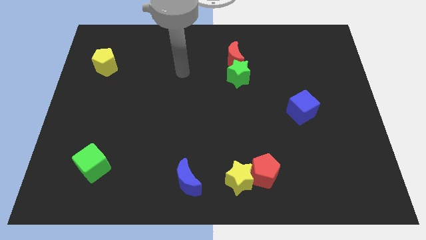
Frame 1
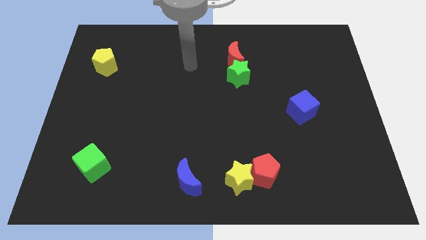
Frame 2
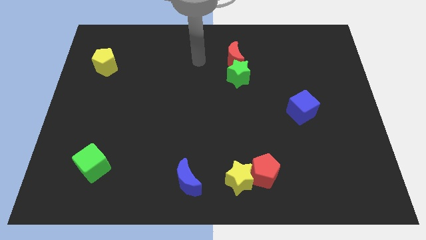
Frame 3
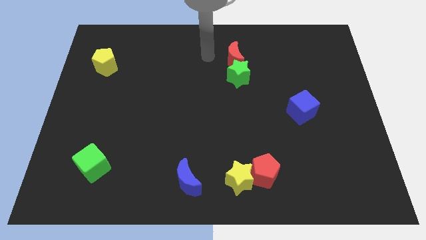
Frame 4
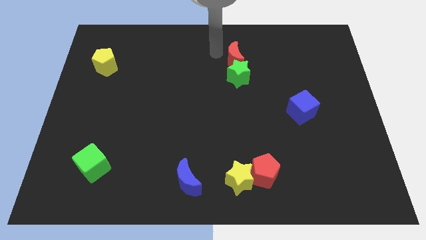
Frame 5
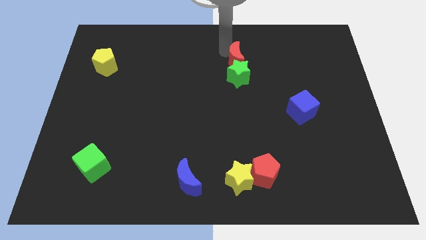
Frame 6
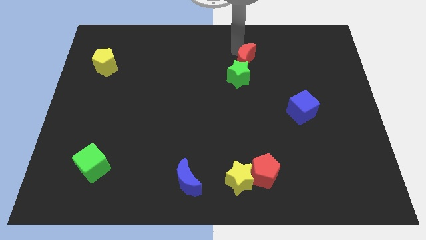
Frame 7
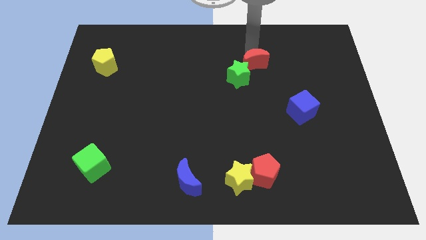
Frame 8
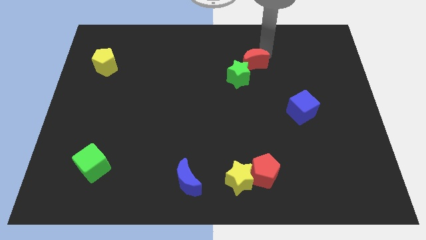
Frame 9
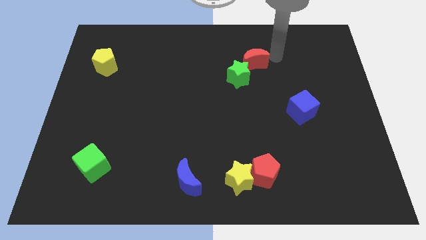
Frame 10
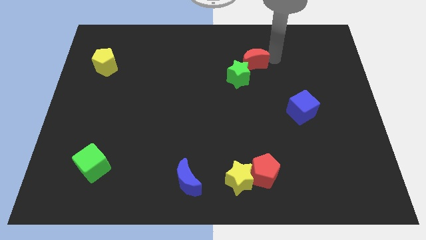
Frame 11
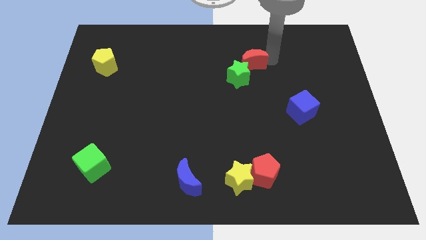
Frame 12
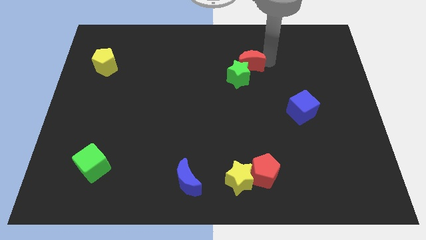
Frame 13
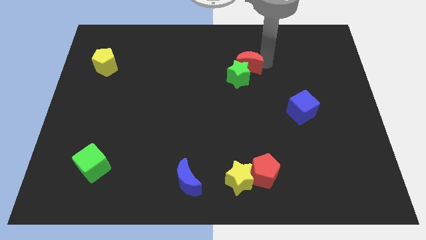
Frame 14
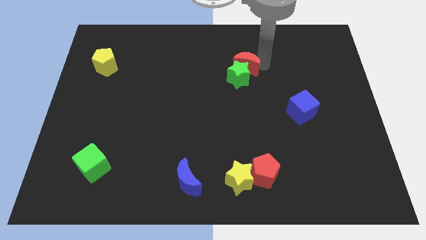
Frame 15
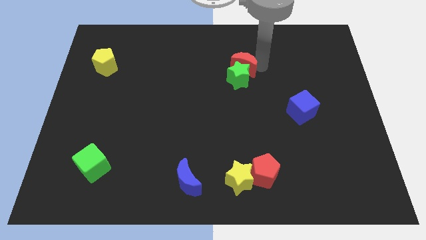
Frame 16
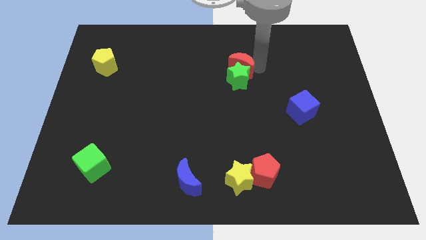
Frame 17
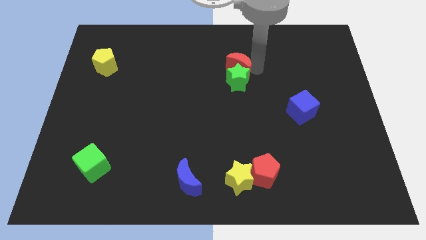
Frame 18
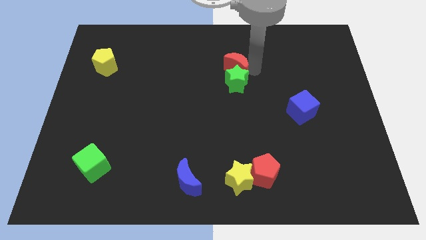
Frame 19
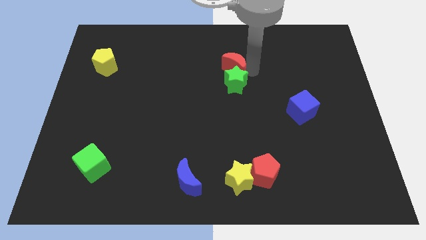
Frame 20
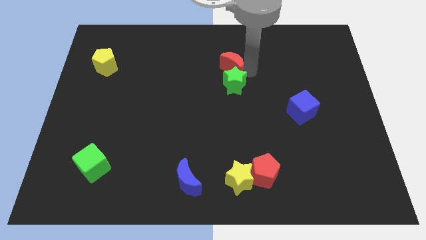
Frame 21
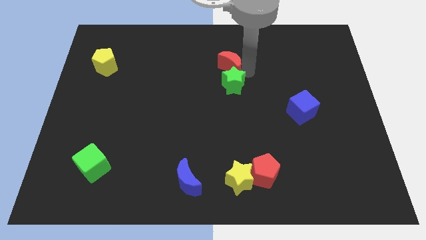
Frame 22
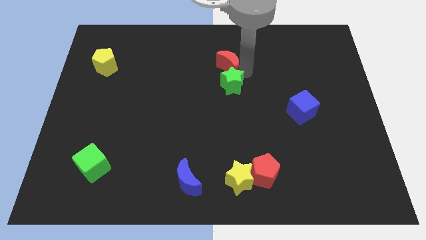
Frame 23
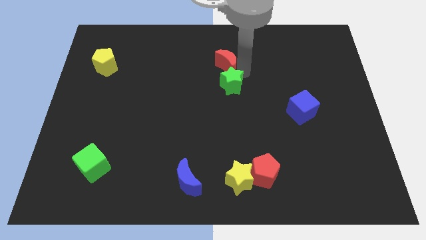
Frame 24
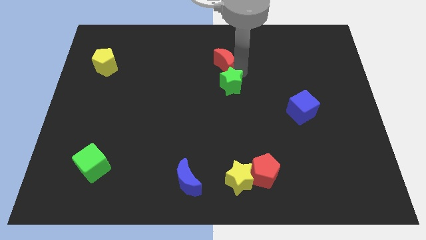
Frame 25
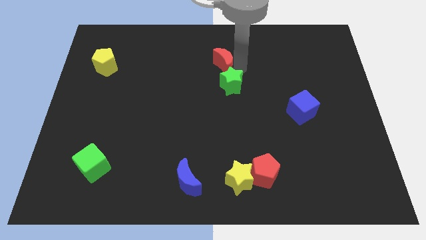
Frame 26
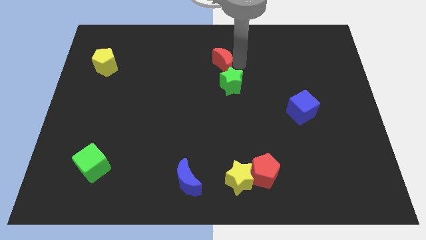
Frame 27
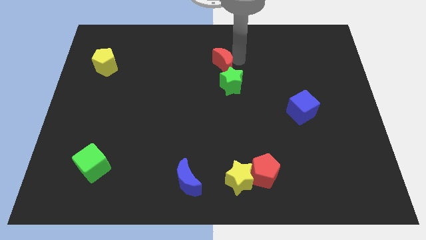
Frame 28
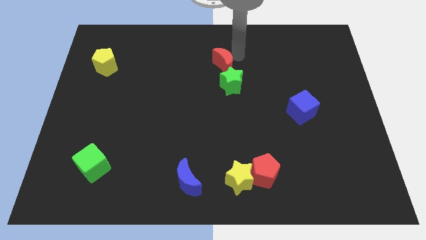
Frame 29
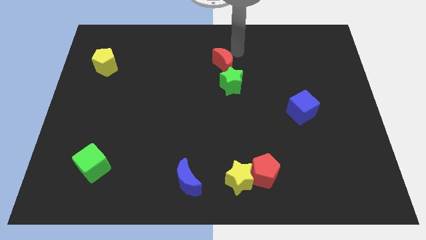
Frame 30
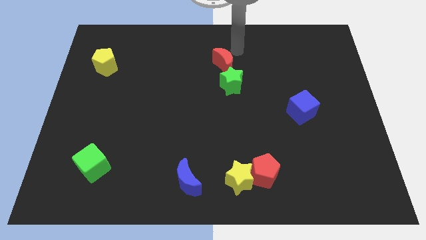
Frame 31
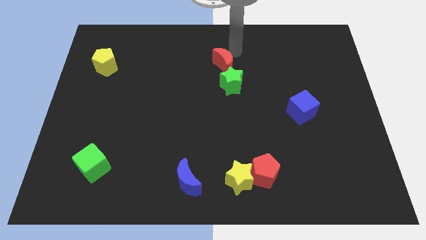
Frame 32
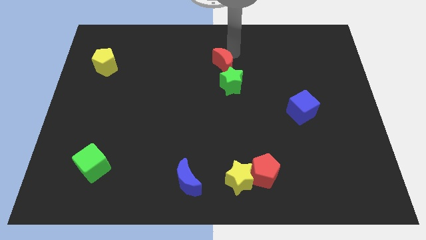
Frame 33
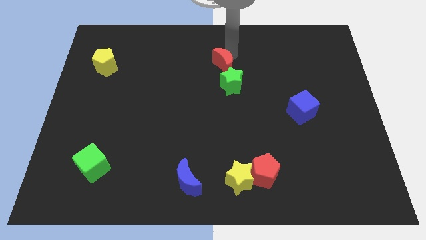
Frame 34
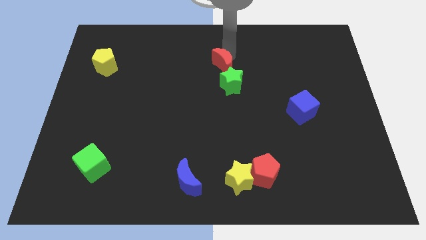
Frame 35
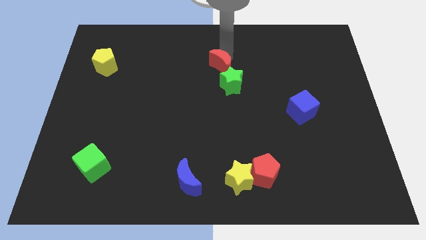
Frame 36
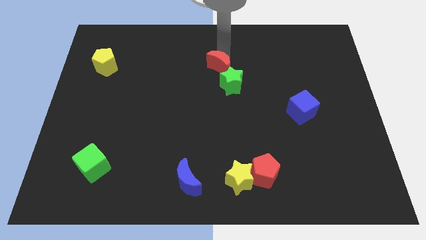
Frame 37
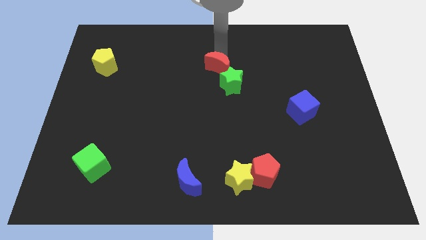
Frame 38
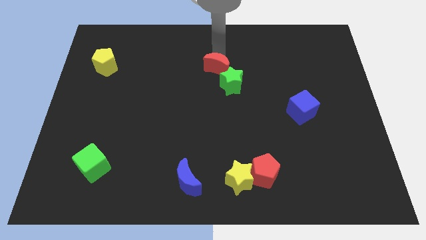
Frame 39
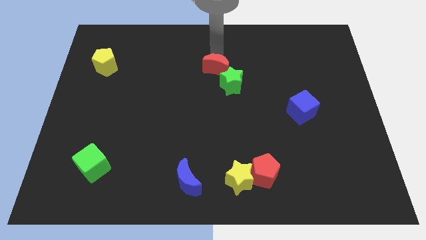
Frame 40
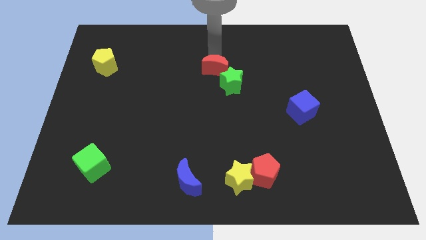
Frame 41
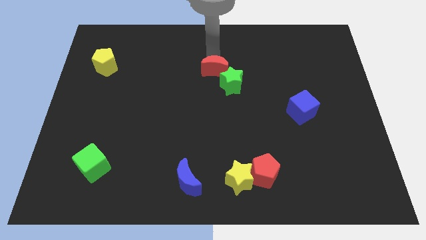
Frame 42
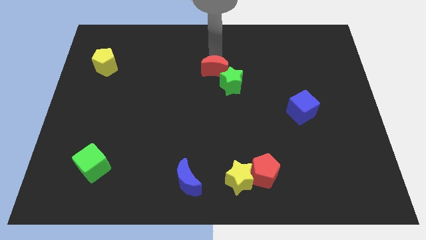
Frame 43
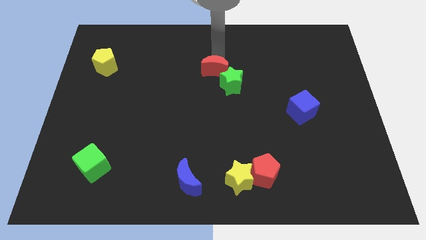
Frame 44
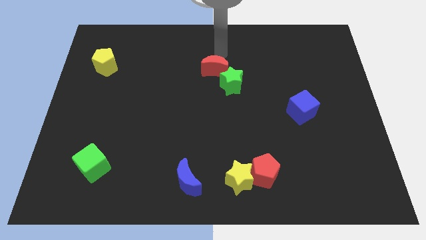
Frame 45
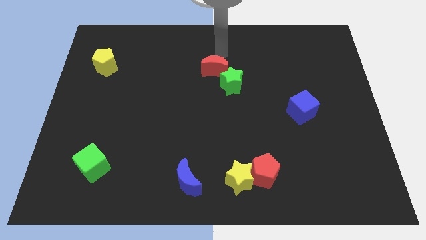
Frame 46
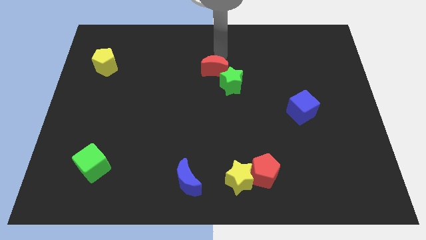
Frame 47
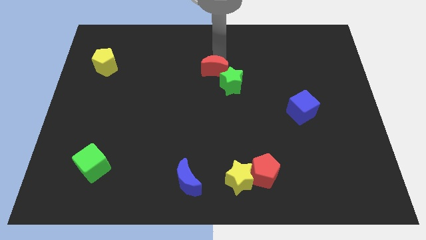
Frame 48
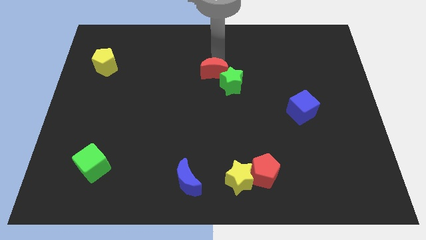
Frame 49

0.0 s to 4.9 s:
slide the red moon a little bit downwards and left

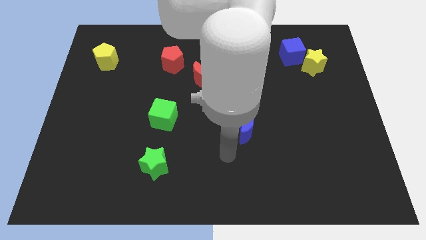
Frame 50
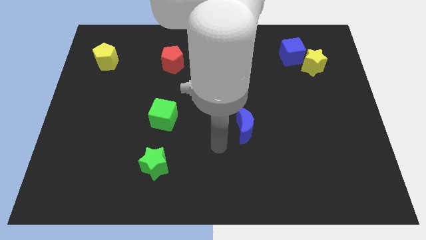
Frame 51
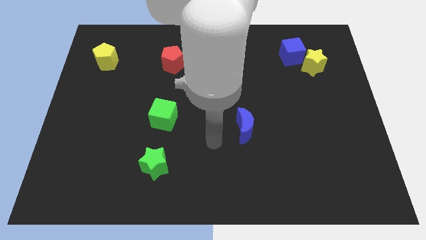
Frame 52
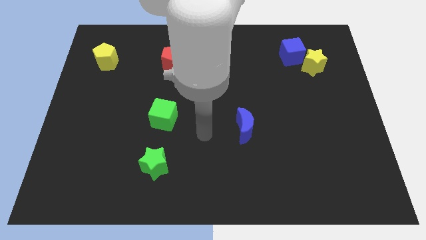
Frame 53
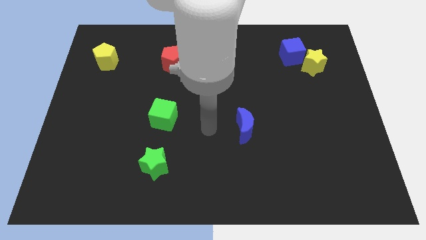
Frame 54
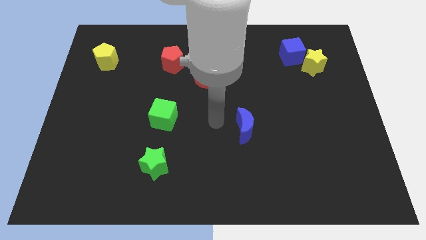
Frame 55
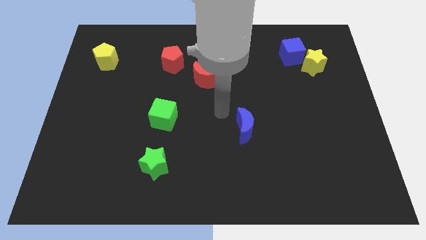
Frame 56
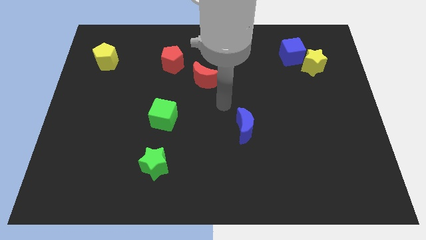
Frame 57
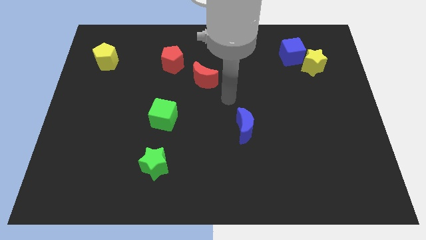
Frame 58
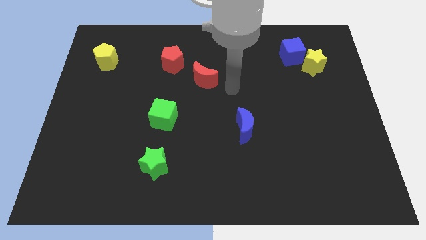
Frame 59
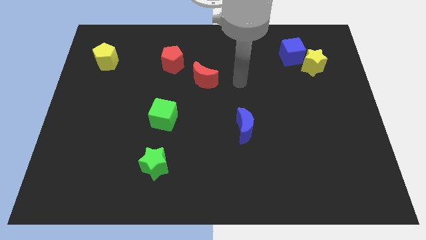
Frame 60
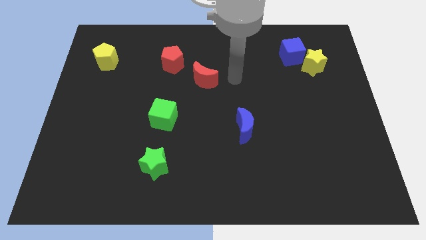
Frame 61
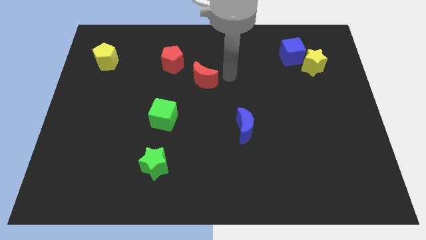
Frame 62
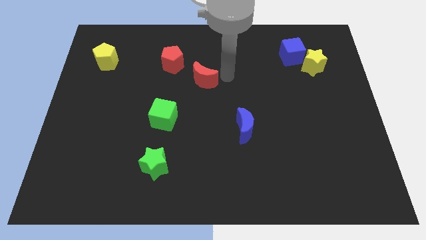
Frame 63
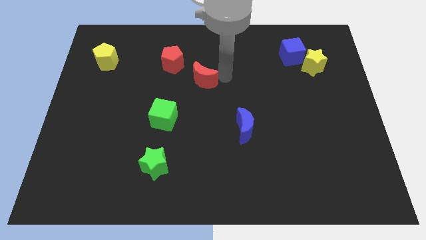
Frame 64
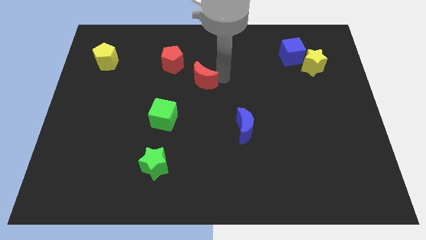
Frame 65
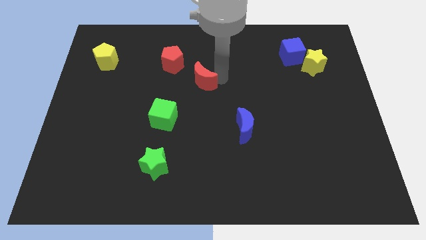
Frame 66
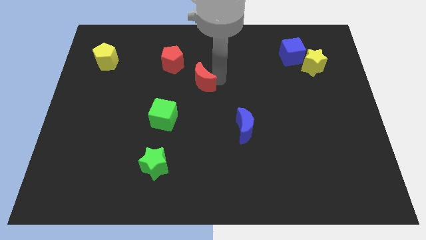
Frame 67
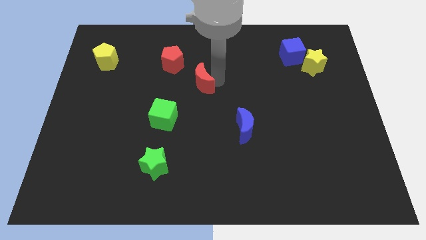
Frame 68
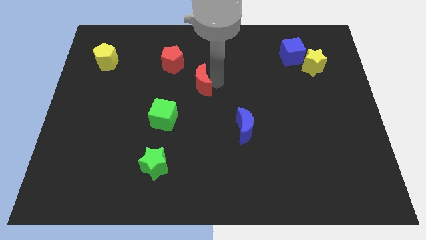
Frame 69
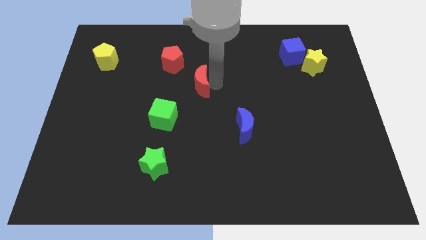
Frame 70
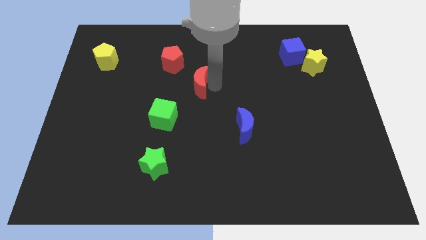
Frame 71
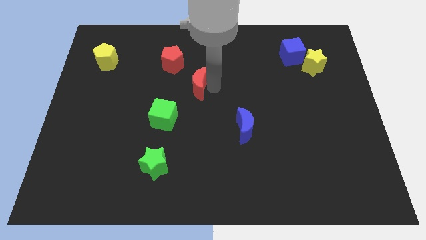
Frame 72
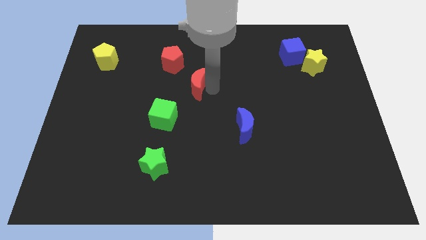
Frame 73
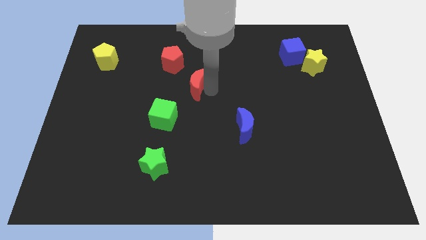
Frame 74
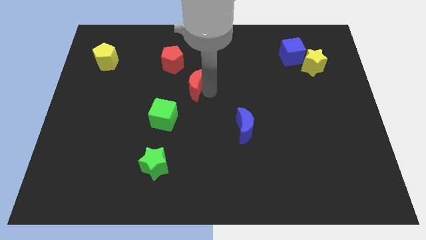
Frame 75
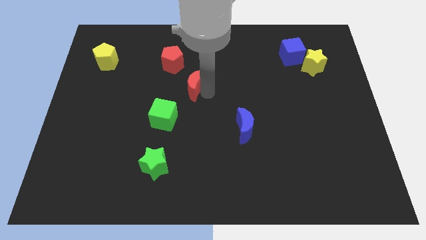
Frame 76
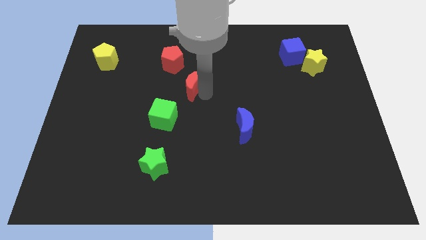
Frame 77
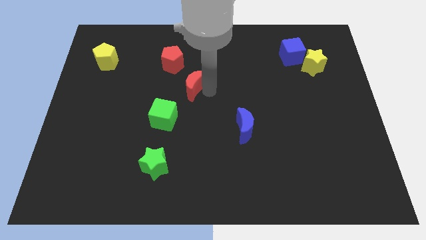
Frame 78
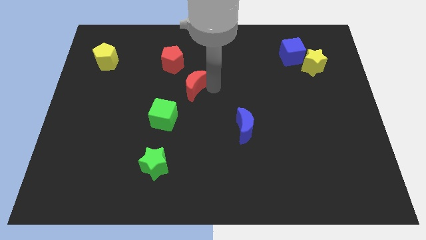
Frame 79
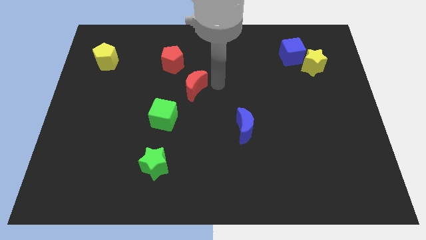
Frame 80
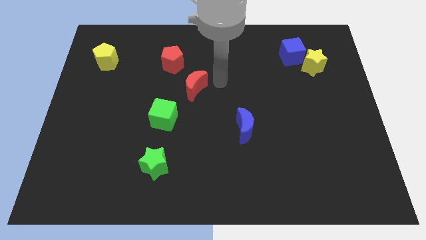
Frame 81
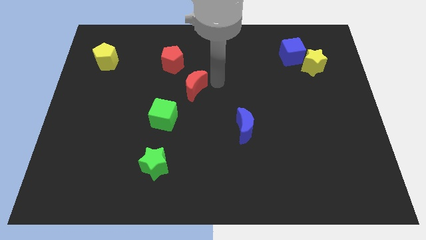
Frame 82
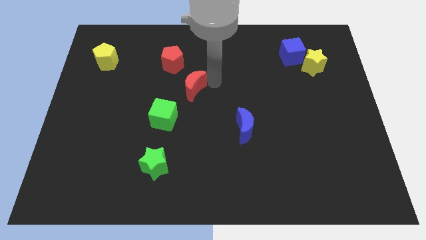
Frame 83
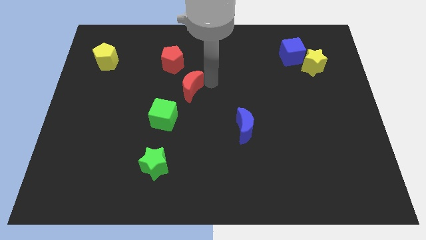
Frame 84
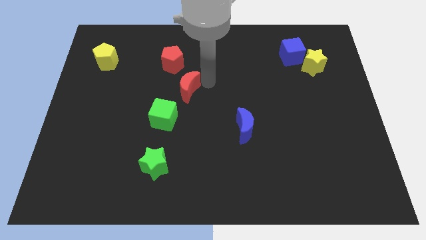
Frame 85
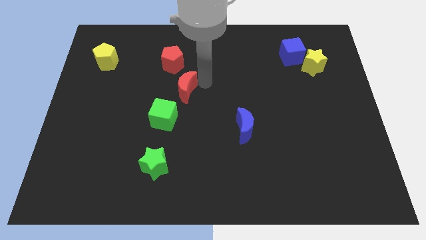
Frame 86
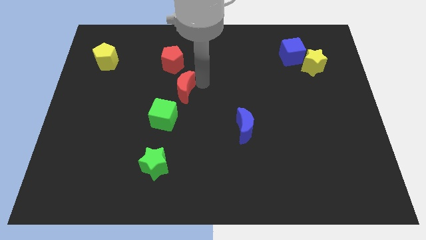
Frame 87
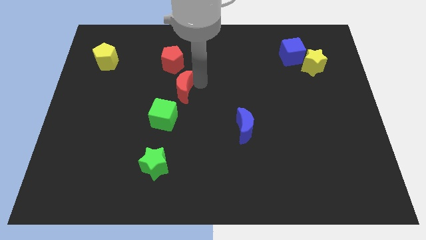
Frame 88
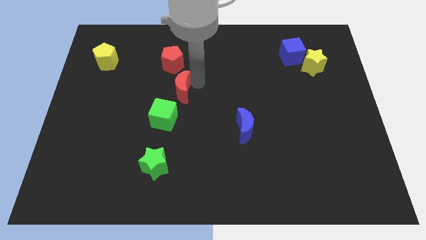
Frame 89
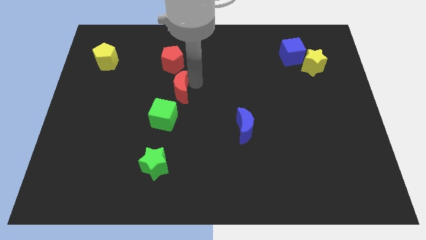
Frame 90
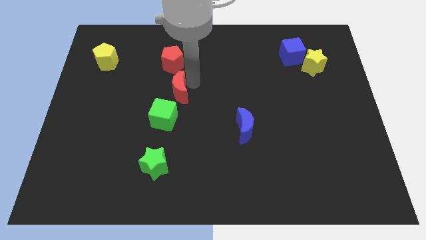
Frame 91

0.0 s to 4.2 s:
push the red moon downwards and left a bit
